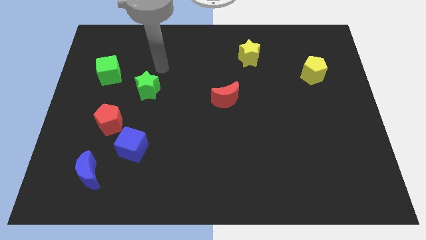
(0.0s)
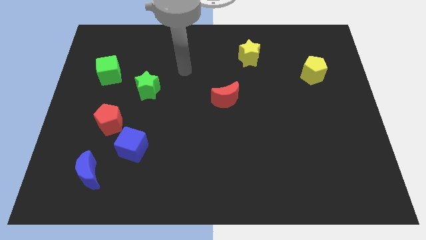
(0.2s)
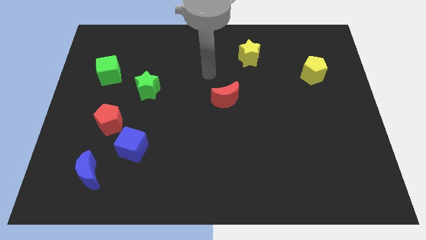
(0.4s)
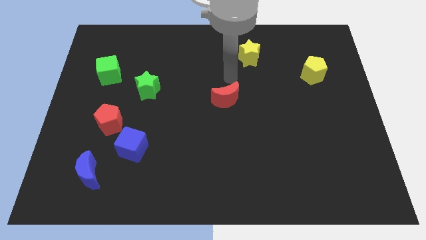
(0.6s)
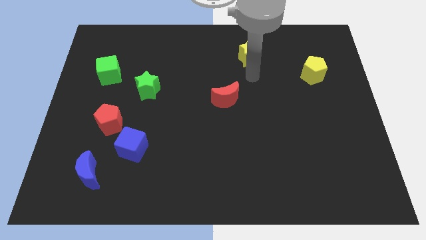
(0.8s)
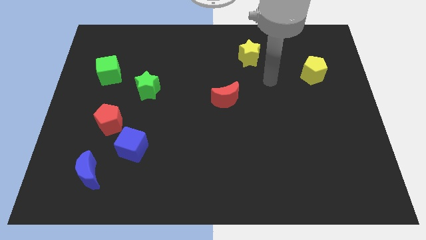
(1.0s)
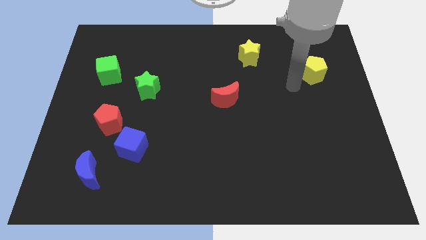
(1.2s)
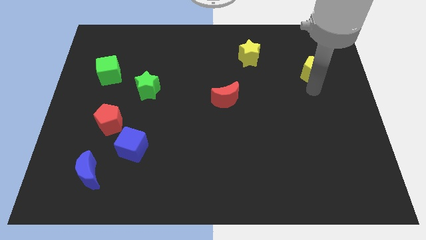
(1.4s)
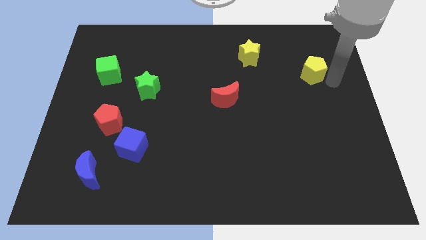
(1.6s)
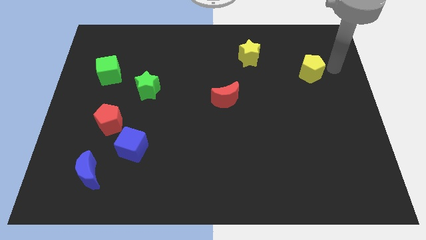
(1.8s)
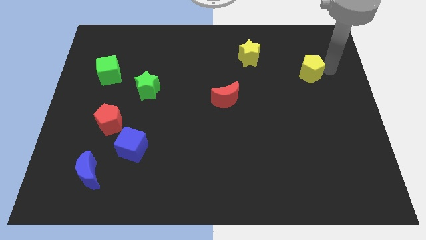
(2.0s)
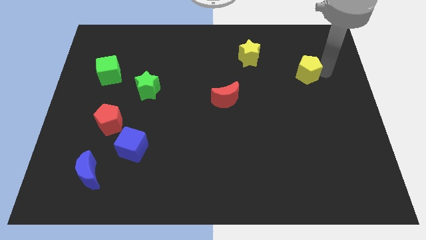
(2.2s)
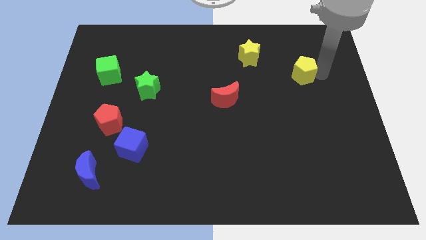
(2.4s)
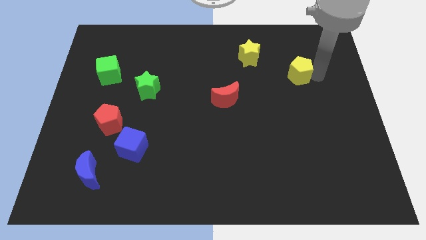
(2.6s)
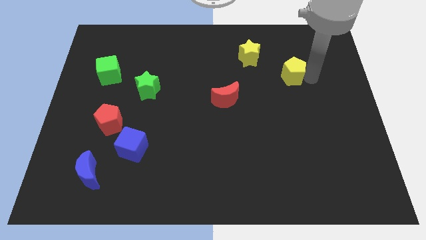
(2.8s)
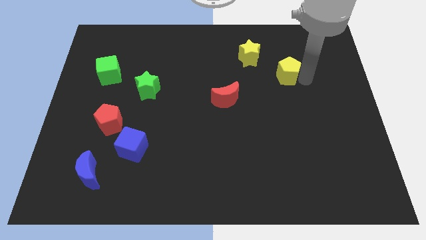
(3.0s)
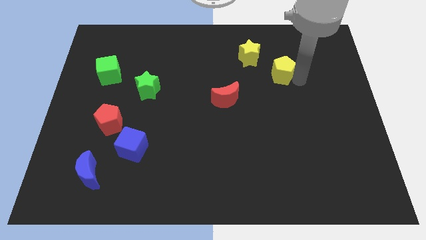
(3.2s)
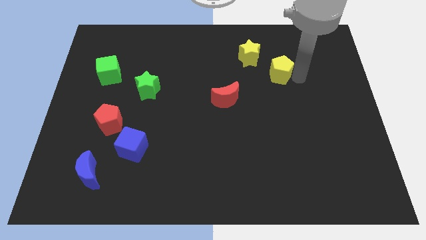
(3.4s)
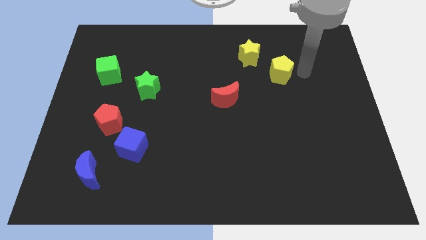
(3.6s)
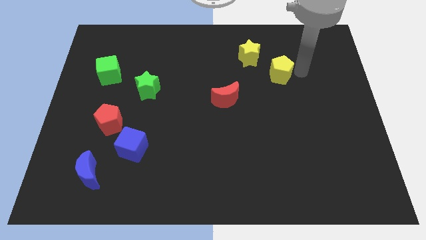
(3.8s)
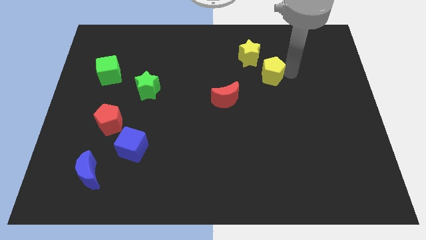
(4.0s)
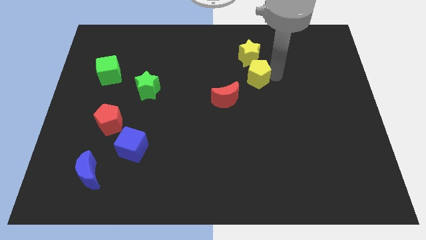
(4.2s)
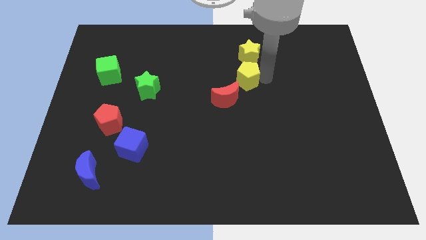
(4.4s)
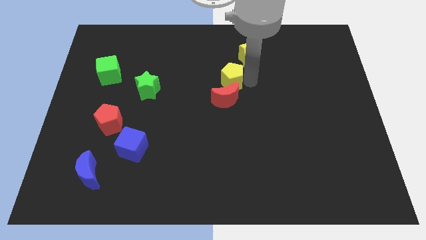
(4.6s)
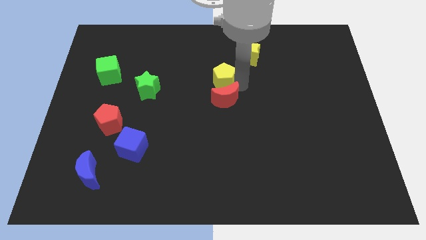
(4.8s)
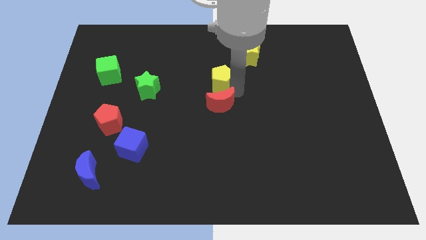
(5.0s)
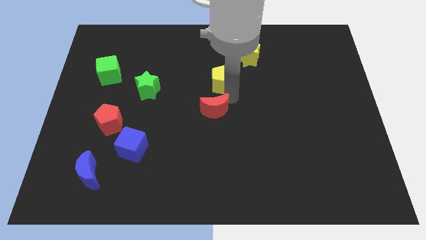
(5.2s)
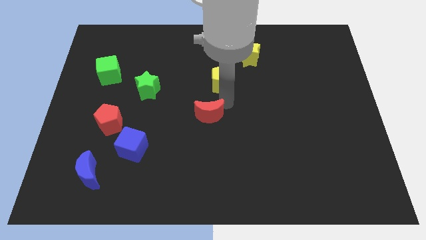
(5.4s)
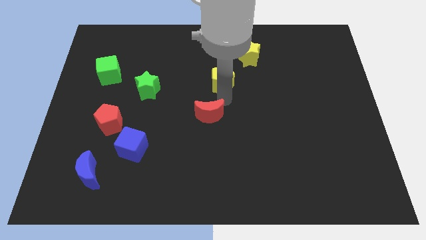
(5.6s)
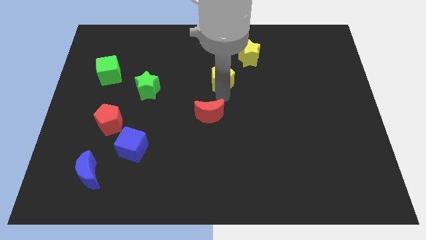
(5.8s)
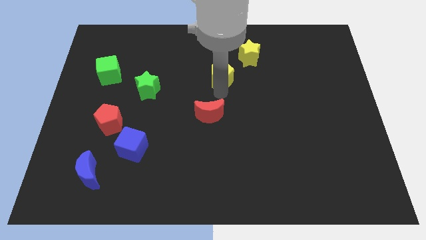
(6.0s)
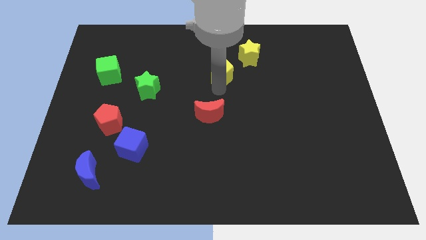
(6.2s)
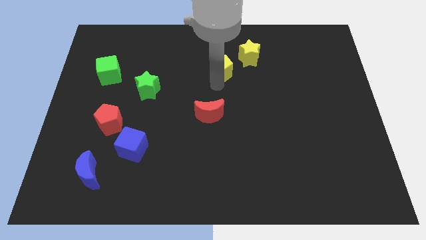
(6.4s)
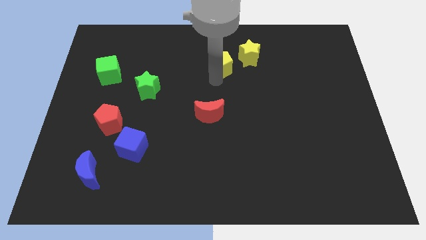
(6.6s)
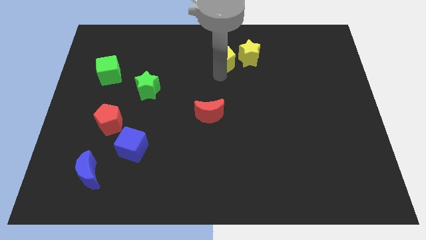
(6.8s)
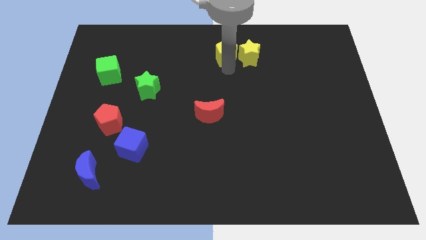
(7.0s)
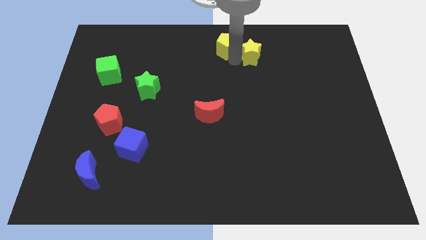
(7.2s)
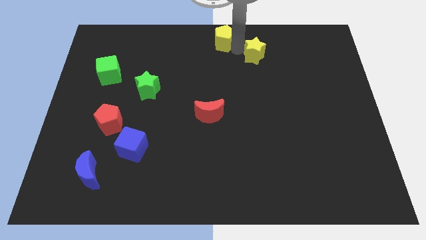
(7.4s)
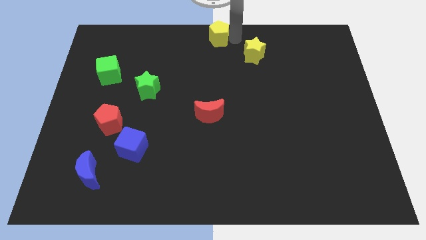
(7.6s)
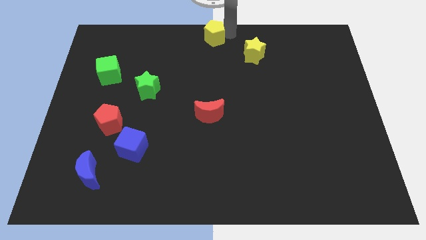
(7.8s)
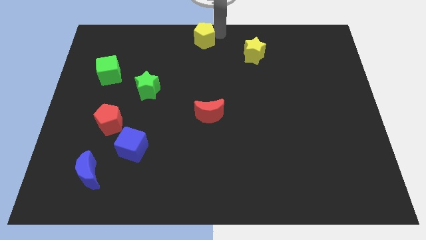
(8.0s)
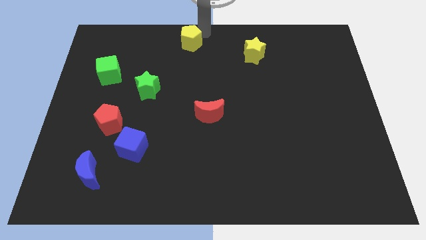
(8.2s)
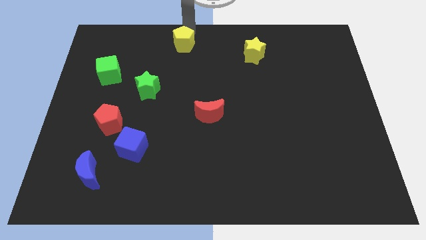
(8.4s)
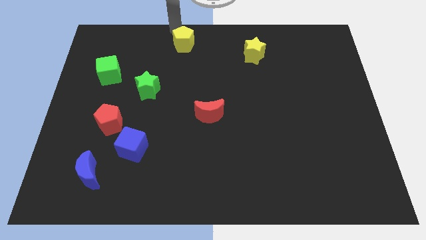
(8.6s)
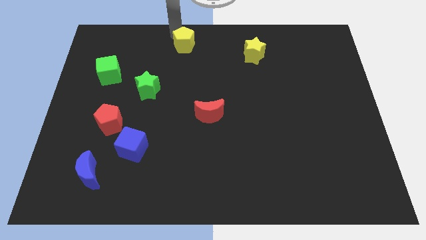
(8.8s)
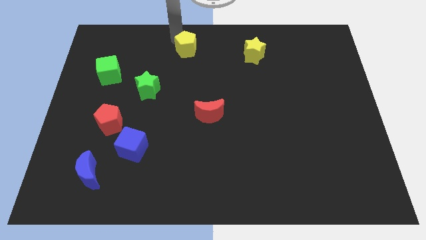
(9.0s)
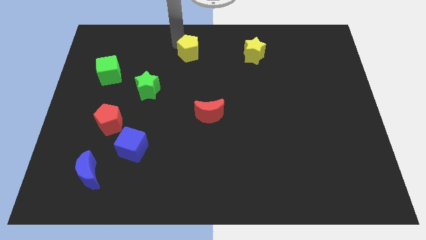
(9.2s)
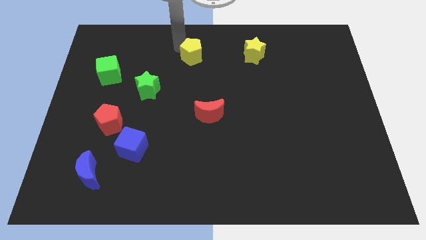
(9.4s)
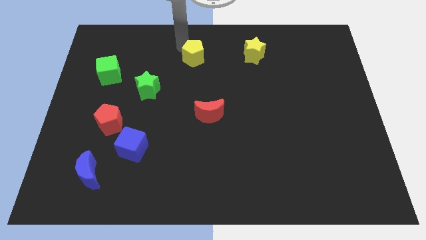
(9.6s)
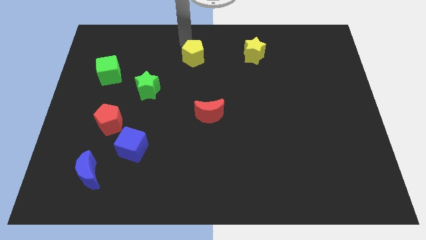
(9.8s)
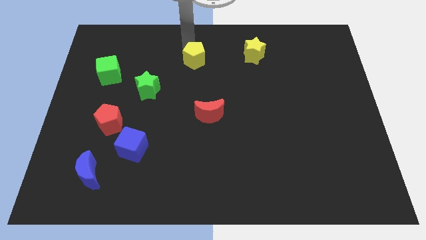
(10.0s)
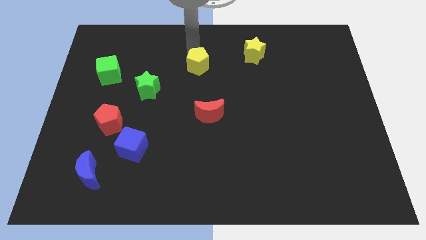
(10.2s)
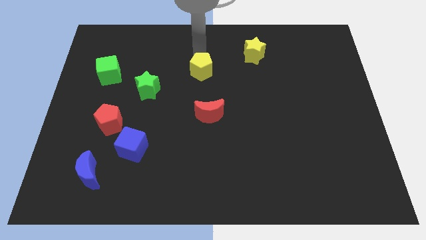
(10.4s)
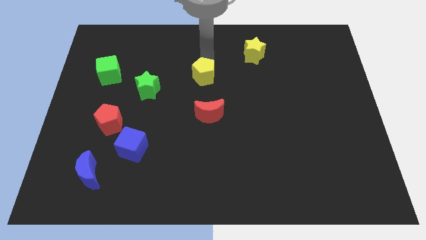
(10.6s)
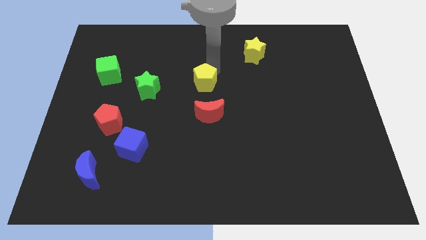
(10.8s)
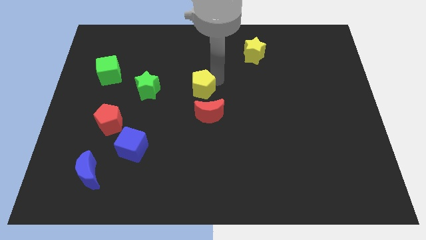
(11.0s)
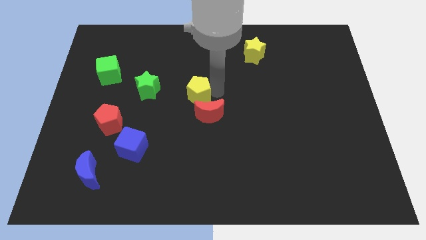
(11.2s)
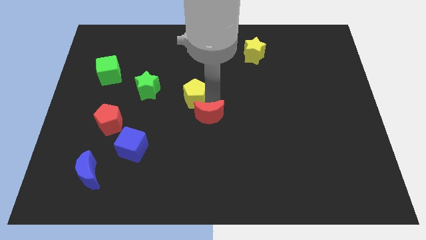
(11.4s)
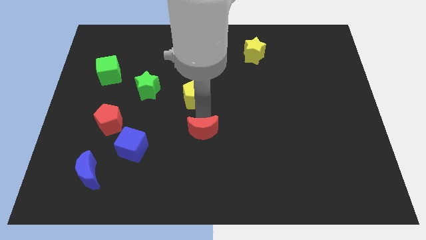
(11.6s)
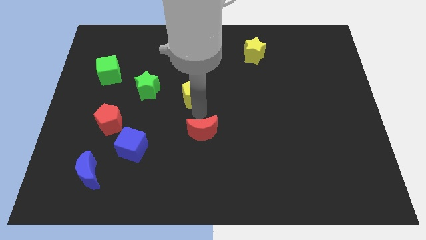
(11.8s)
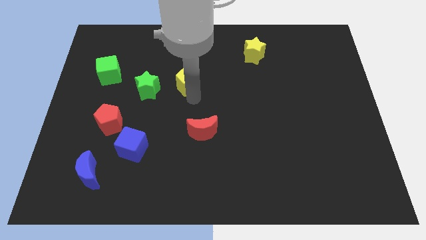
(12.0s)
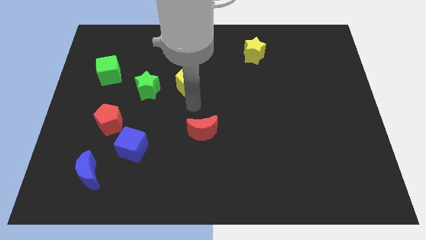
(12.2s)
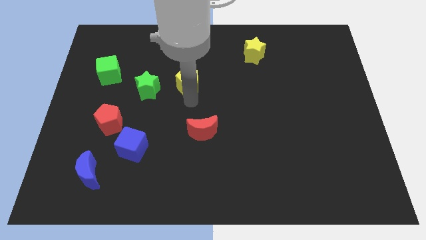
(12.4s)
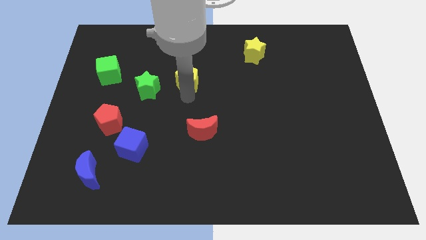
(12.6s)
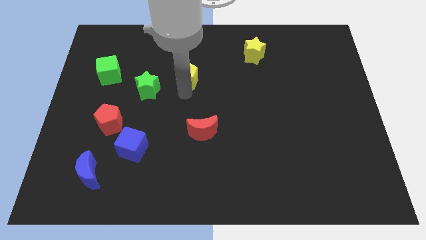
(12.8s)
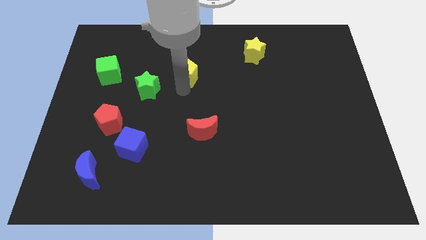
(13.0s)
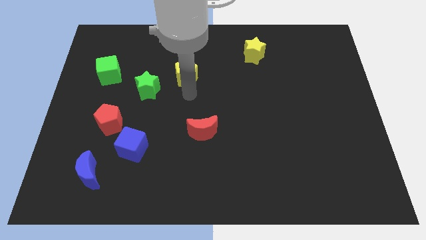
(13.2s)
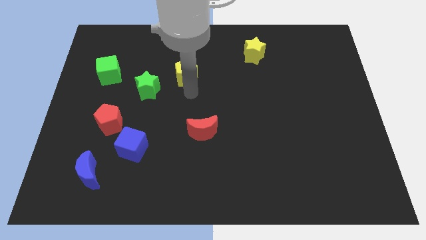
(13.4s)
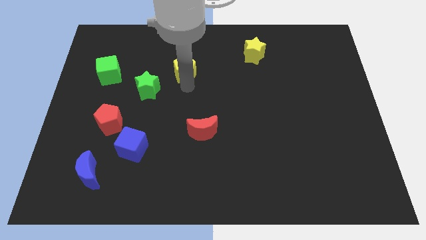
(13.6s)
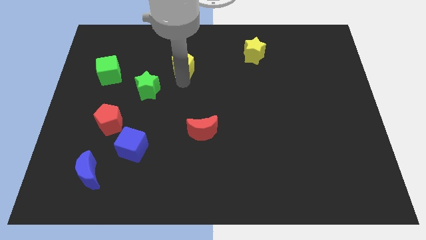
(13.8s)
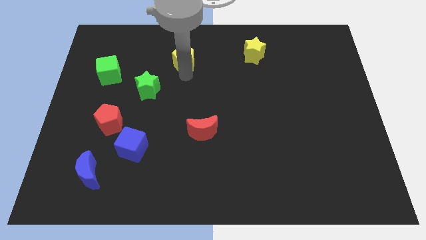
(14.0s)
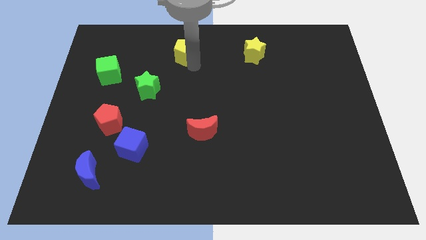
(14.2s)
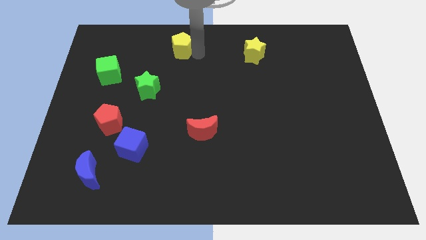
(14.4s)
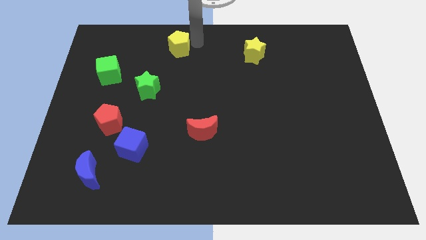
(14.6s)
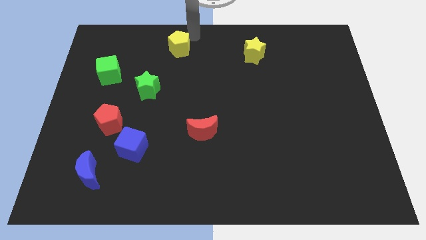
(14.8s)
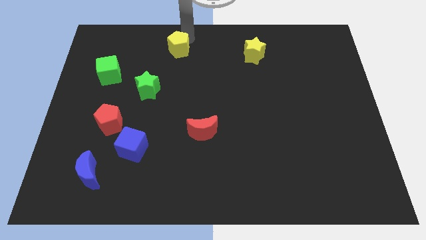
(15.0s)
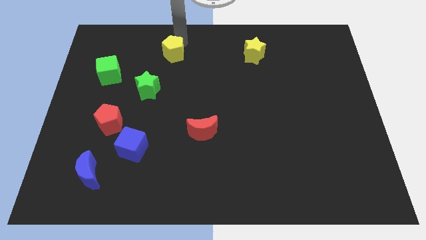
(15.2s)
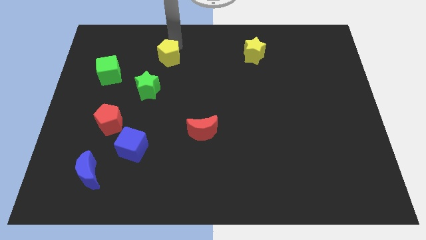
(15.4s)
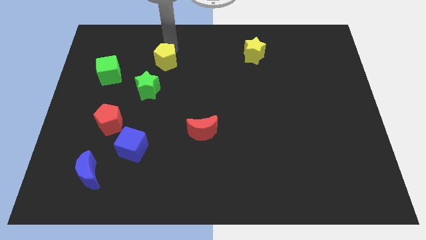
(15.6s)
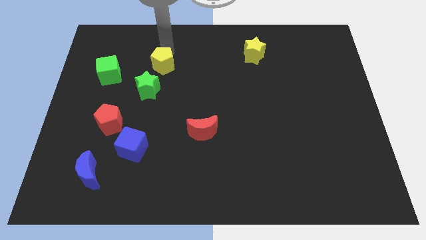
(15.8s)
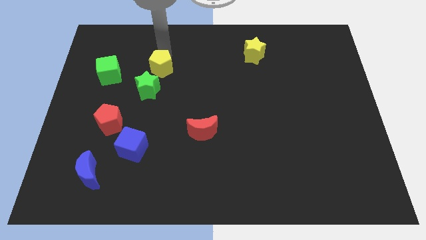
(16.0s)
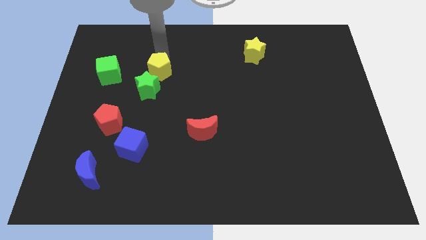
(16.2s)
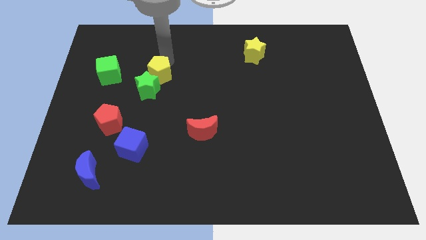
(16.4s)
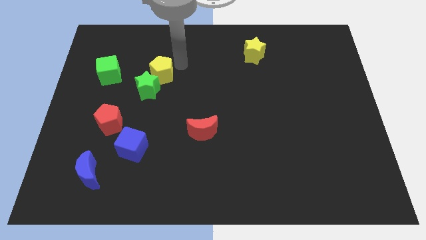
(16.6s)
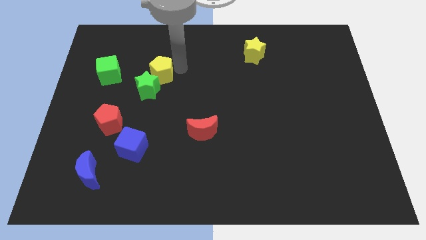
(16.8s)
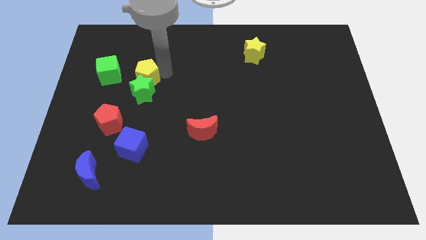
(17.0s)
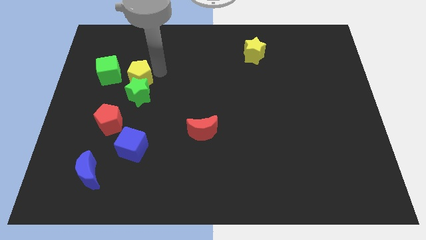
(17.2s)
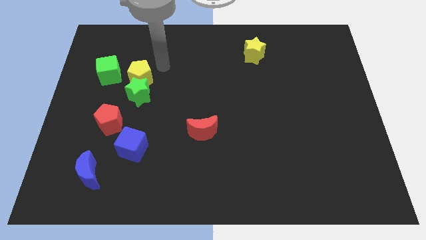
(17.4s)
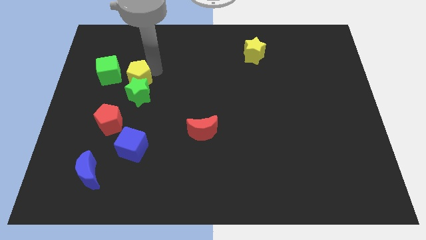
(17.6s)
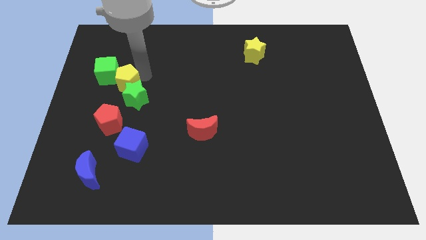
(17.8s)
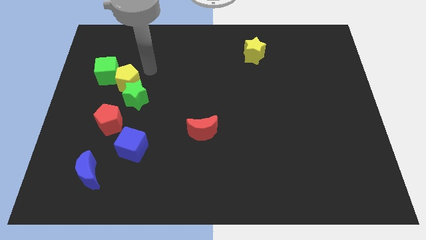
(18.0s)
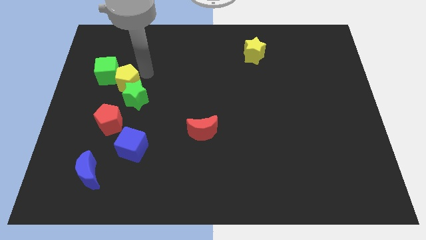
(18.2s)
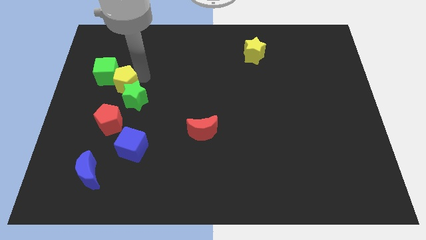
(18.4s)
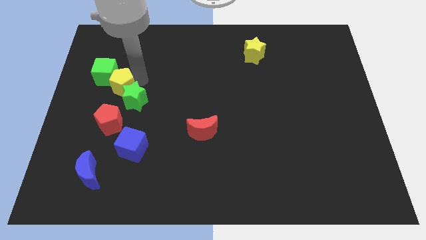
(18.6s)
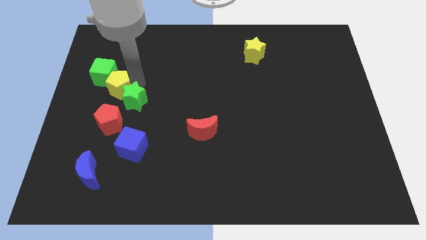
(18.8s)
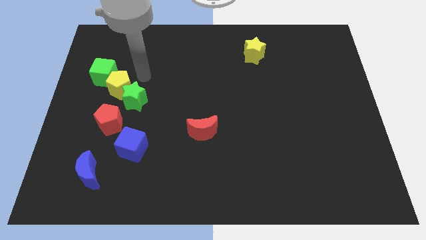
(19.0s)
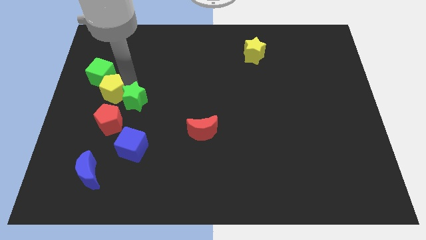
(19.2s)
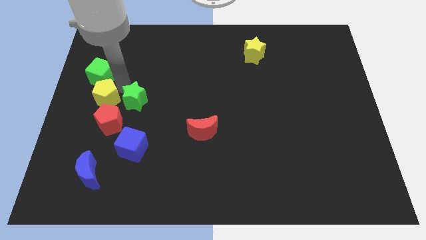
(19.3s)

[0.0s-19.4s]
move the yellow pentagon to the top left of the red pentagon
